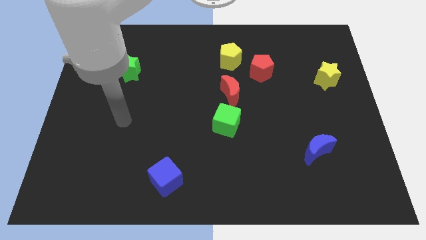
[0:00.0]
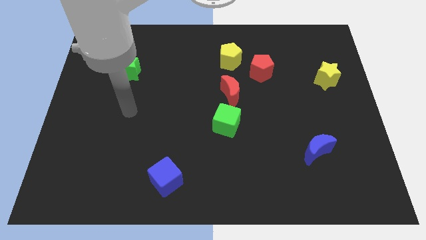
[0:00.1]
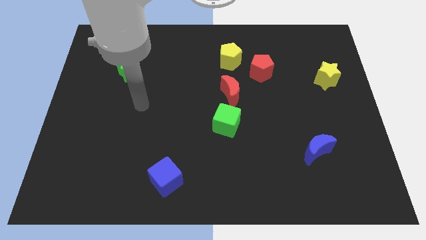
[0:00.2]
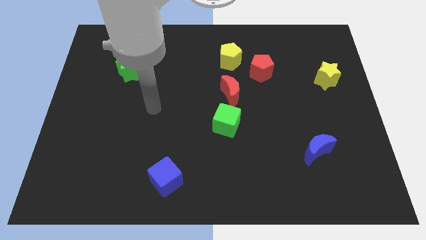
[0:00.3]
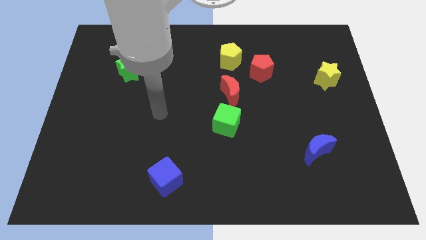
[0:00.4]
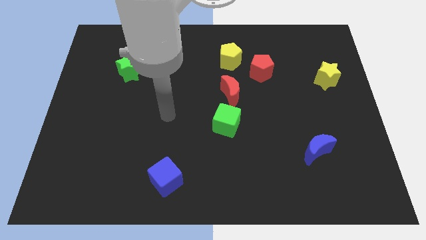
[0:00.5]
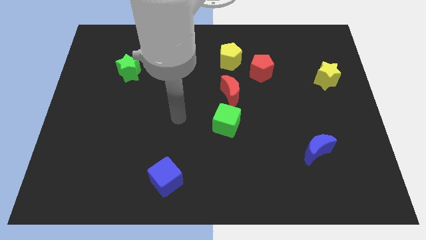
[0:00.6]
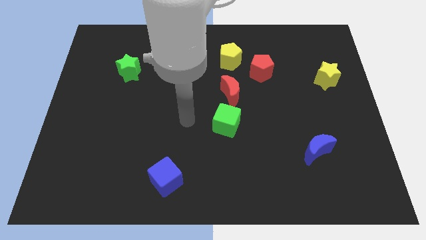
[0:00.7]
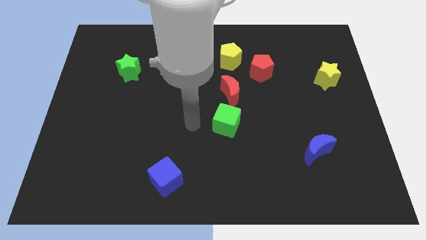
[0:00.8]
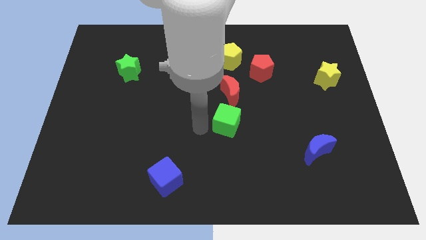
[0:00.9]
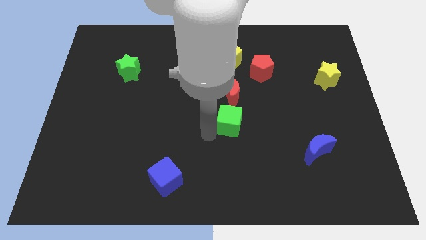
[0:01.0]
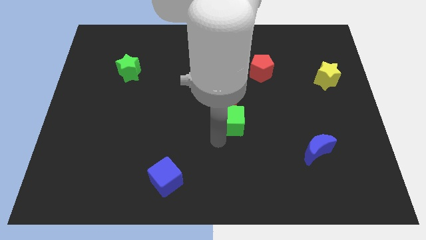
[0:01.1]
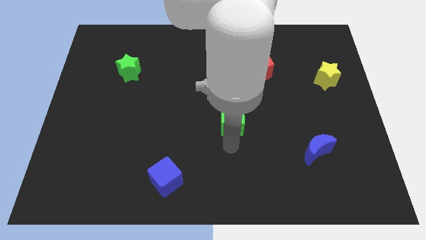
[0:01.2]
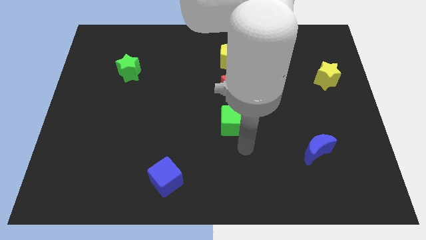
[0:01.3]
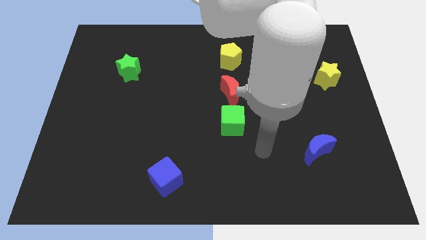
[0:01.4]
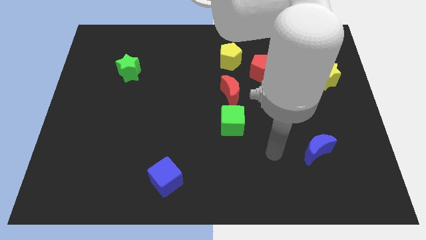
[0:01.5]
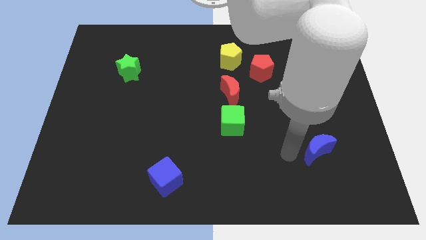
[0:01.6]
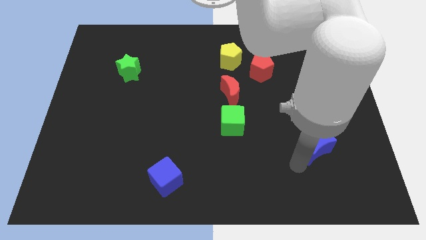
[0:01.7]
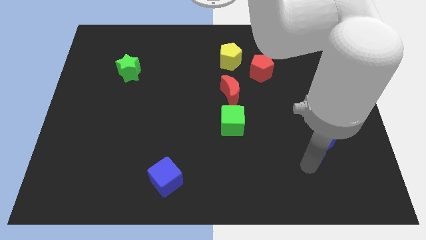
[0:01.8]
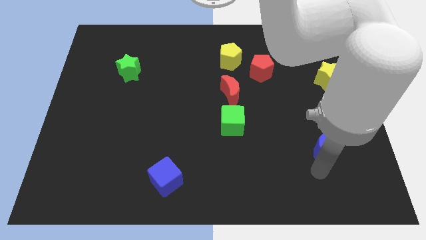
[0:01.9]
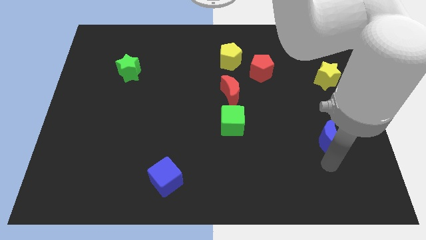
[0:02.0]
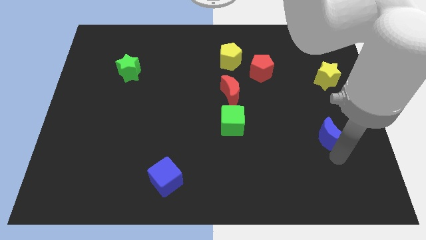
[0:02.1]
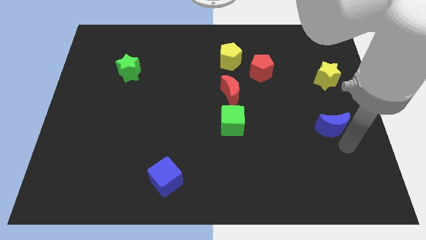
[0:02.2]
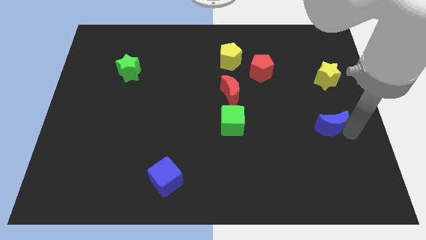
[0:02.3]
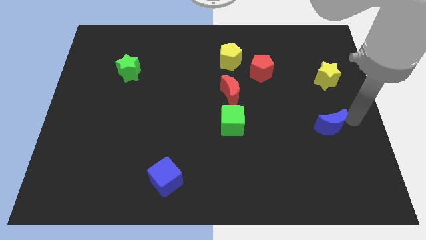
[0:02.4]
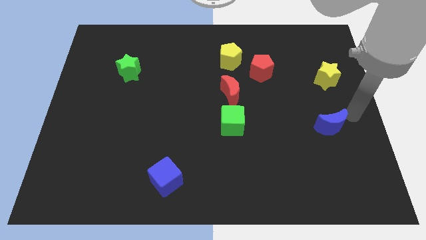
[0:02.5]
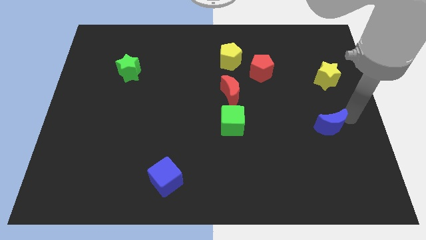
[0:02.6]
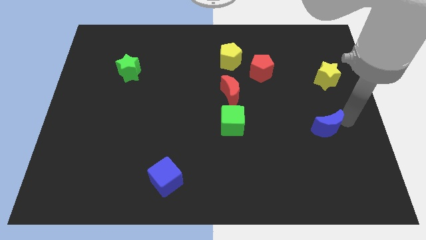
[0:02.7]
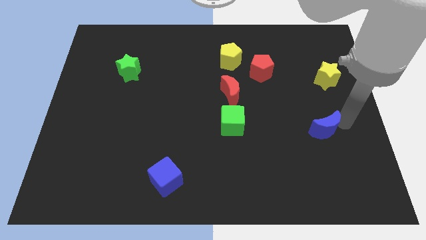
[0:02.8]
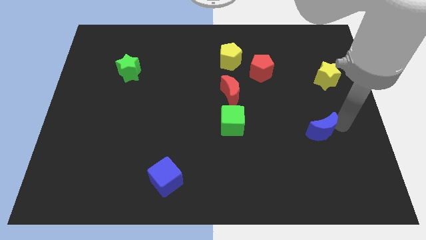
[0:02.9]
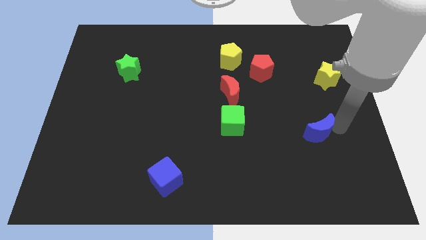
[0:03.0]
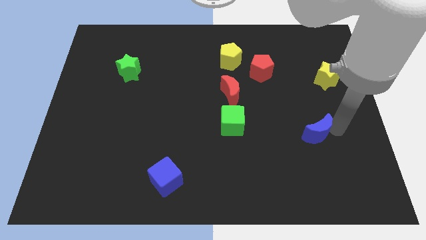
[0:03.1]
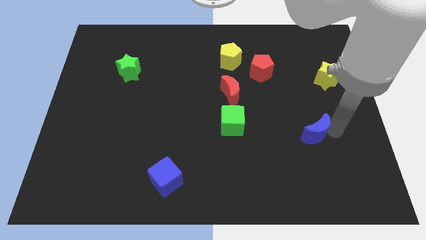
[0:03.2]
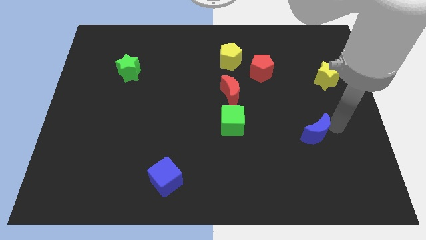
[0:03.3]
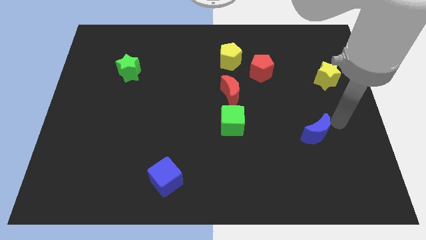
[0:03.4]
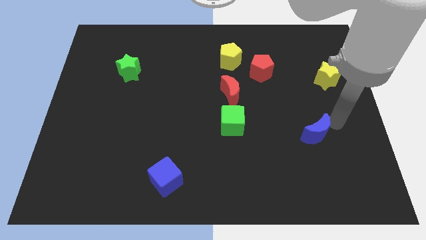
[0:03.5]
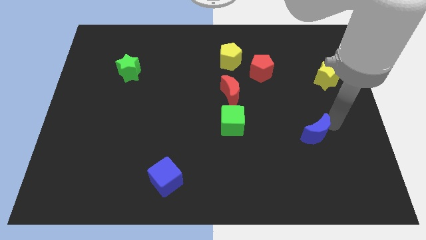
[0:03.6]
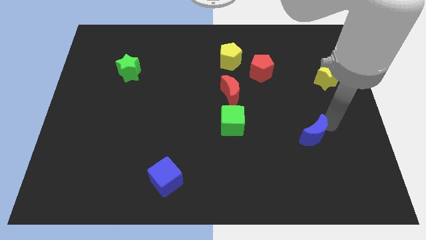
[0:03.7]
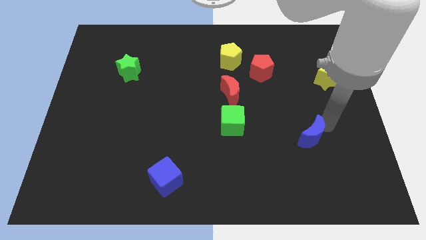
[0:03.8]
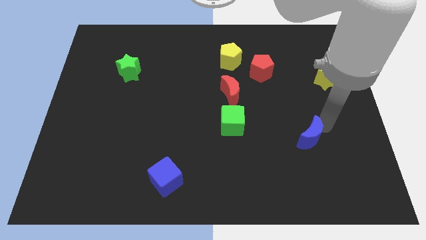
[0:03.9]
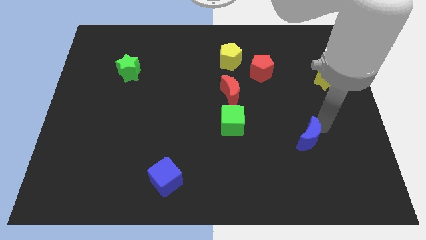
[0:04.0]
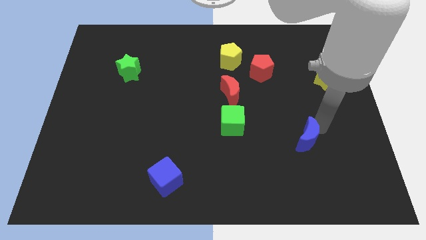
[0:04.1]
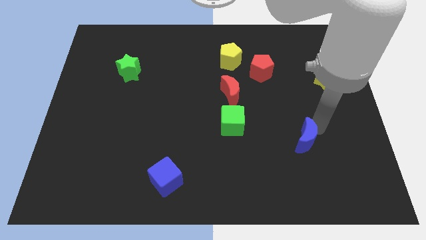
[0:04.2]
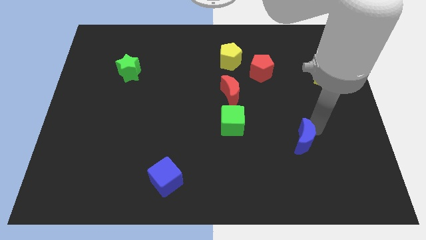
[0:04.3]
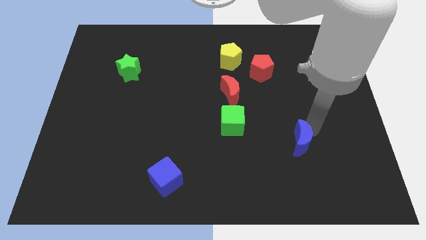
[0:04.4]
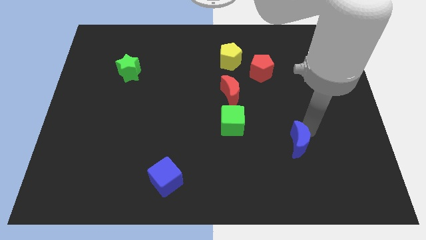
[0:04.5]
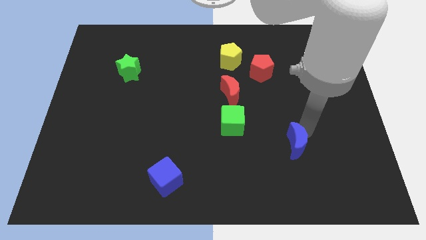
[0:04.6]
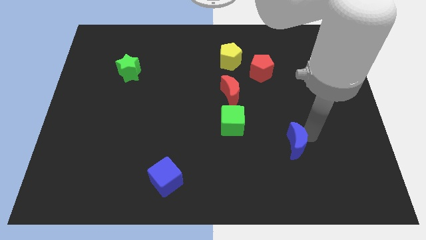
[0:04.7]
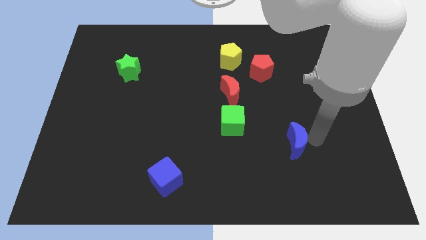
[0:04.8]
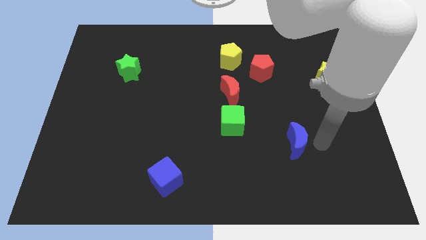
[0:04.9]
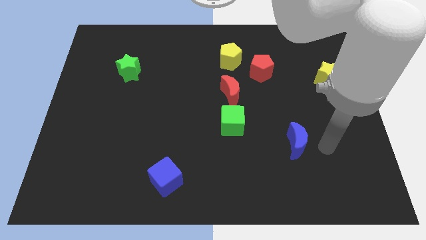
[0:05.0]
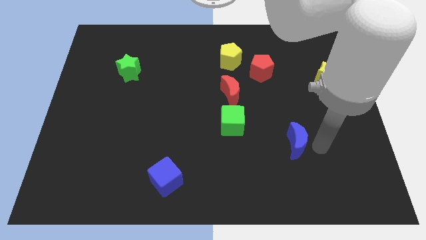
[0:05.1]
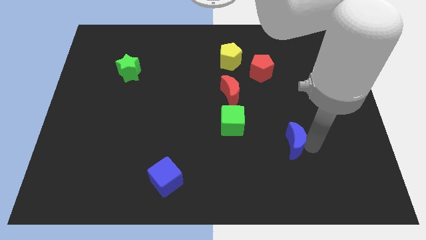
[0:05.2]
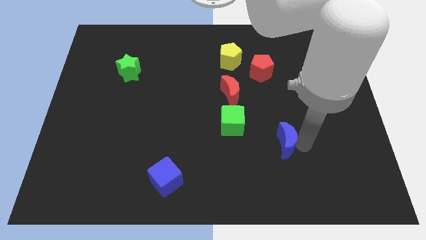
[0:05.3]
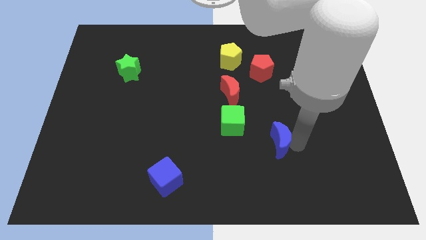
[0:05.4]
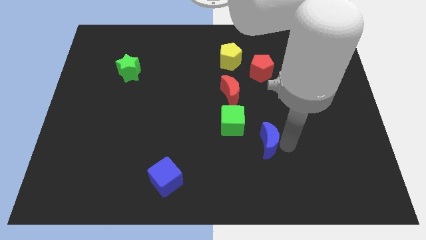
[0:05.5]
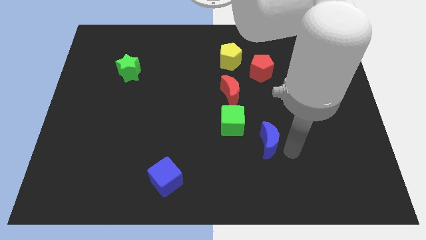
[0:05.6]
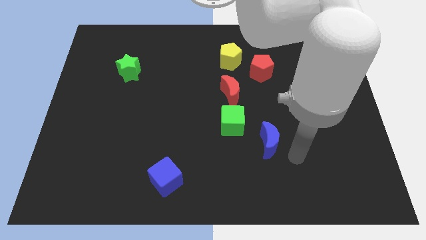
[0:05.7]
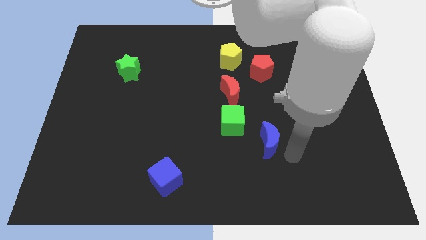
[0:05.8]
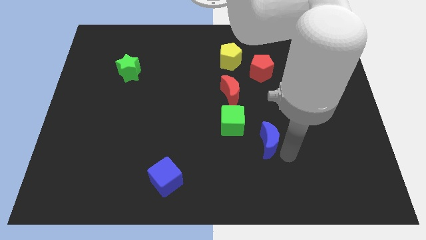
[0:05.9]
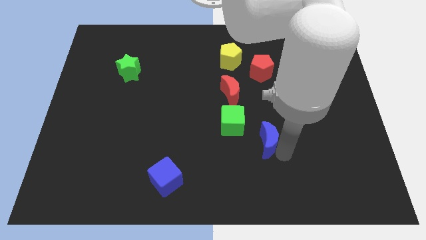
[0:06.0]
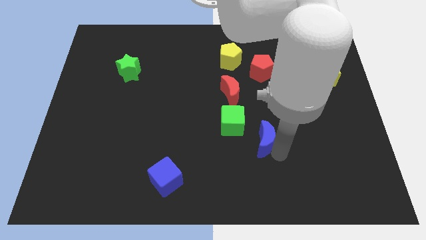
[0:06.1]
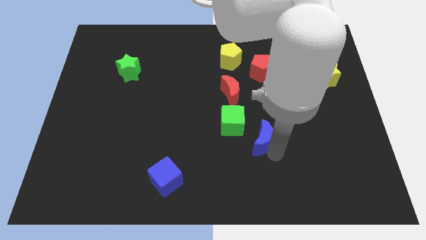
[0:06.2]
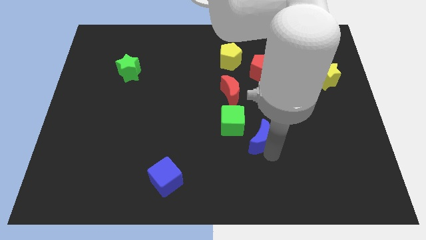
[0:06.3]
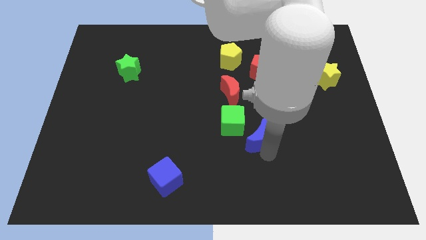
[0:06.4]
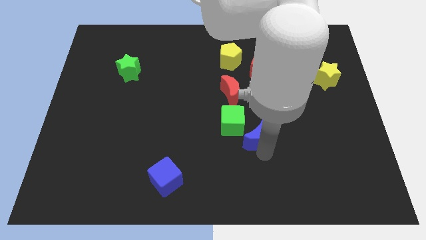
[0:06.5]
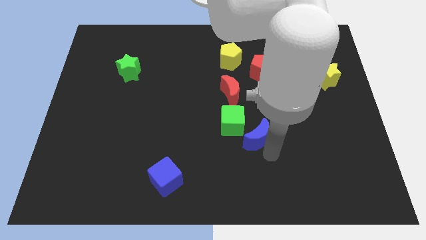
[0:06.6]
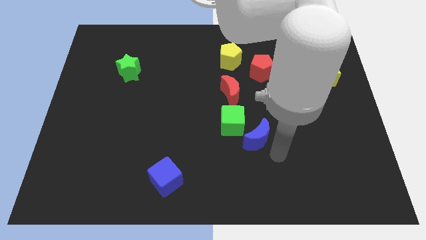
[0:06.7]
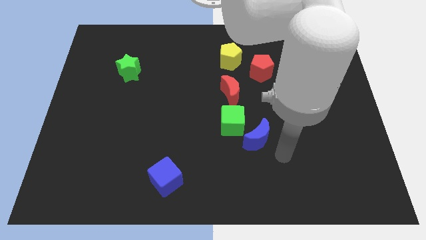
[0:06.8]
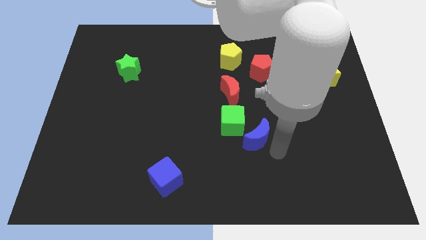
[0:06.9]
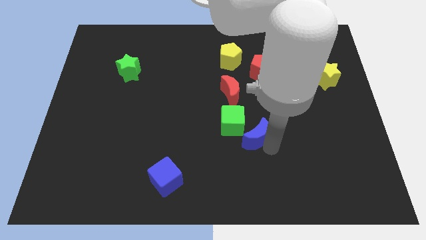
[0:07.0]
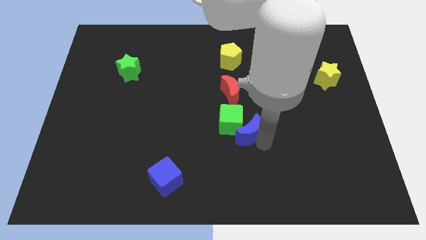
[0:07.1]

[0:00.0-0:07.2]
move the blue moon next to the green cube

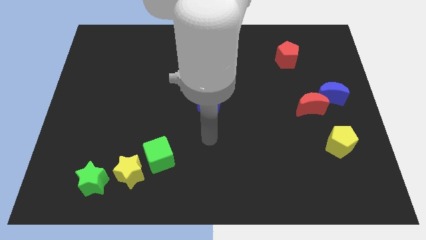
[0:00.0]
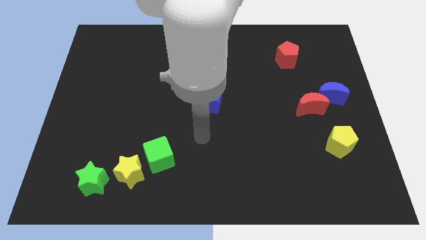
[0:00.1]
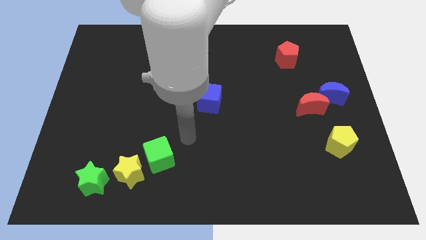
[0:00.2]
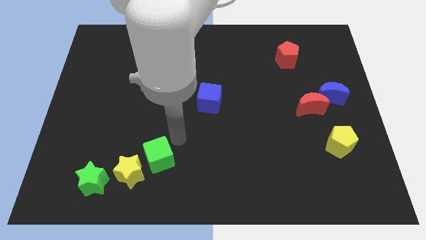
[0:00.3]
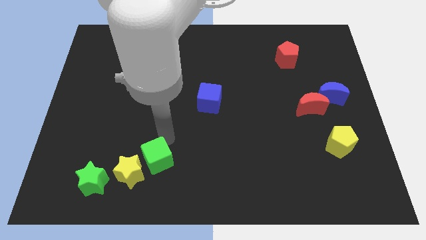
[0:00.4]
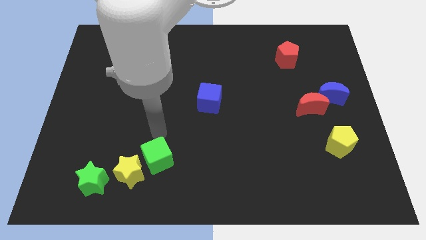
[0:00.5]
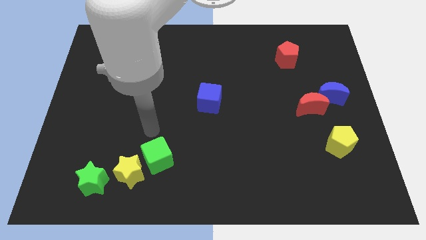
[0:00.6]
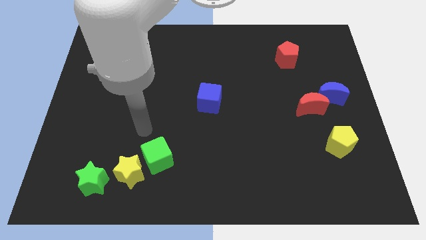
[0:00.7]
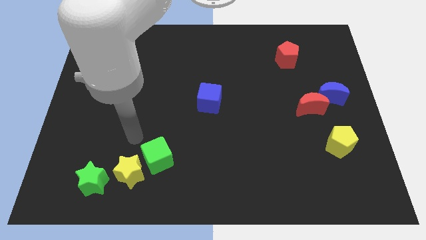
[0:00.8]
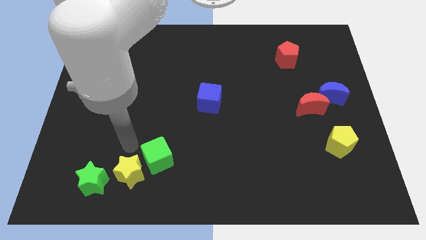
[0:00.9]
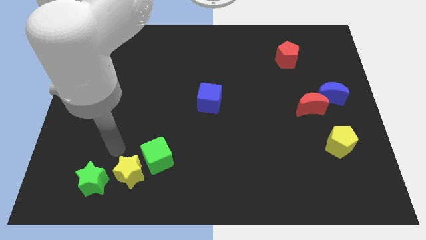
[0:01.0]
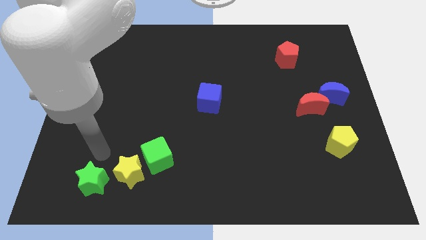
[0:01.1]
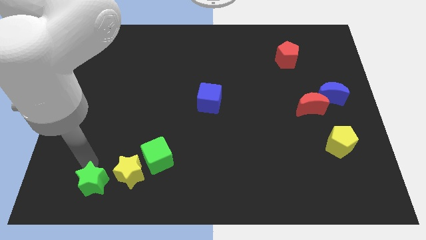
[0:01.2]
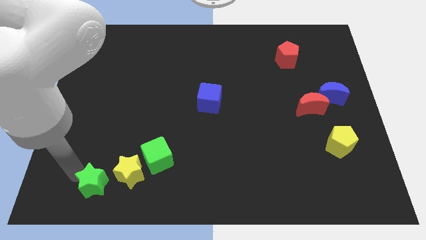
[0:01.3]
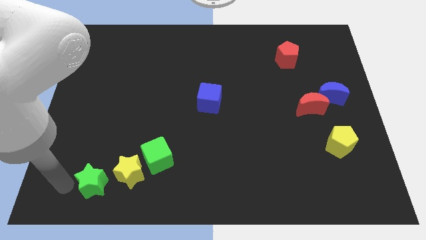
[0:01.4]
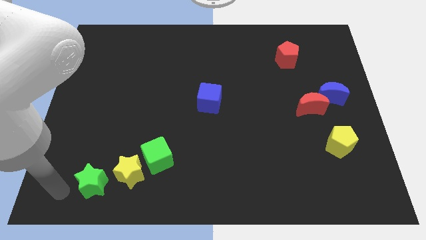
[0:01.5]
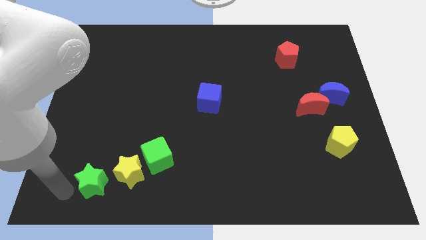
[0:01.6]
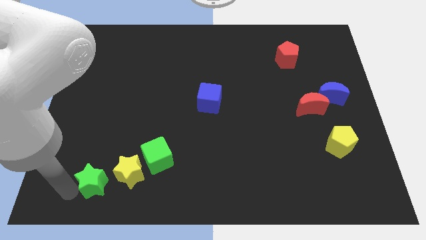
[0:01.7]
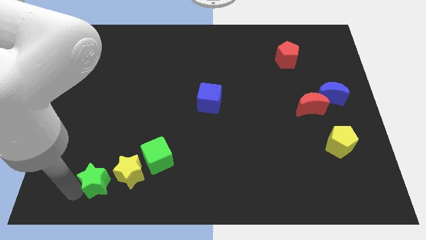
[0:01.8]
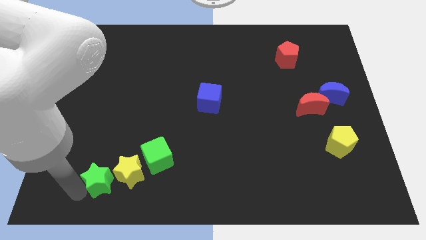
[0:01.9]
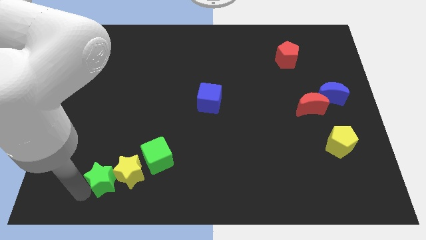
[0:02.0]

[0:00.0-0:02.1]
push the green star towards the yellow star
